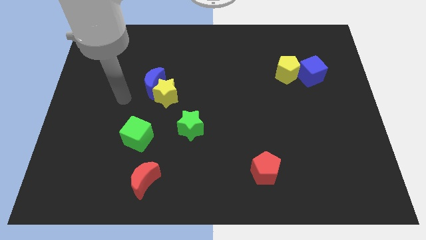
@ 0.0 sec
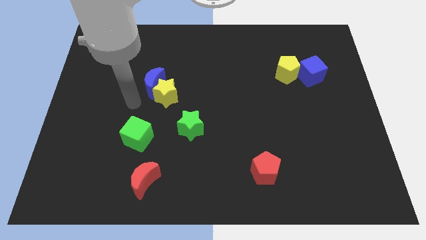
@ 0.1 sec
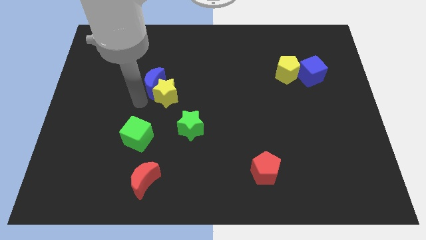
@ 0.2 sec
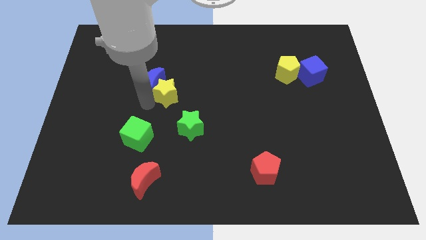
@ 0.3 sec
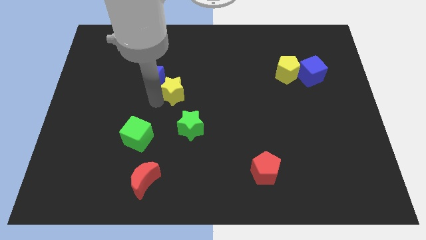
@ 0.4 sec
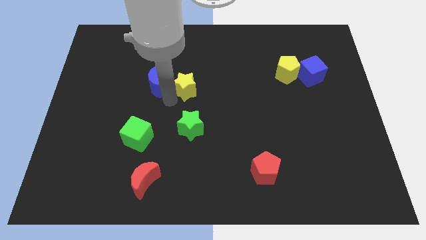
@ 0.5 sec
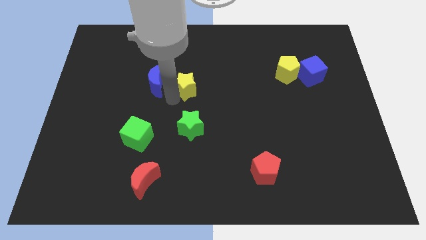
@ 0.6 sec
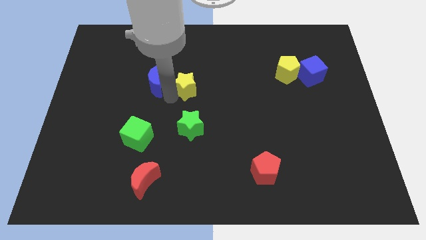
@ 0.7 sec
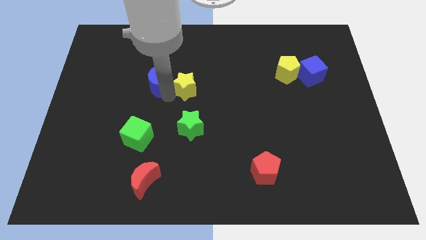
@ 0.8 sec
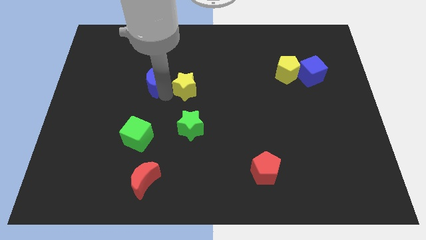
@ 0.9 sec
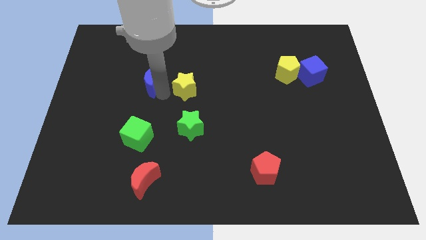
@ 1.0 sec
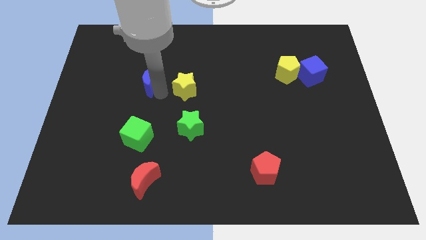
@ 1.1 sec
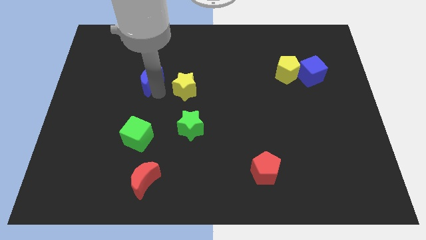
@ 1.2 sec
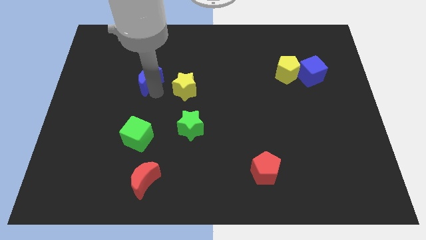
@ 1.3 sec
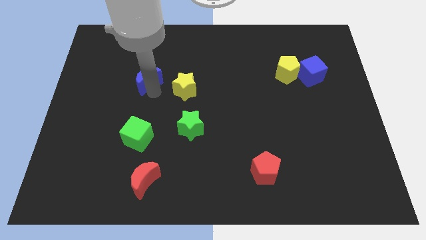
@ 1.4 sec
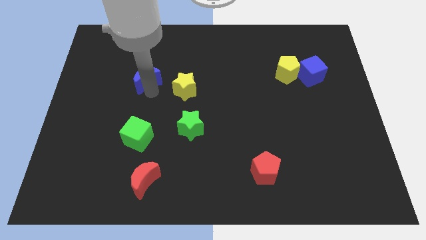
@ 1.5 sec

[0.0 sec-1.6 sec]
separate the blue moon from the yellow star

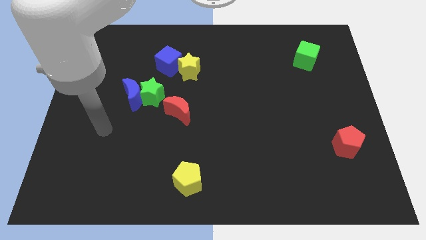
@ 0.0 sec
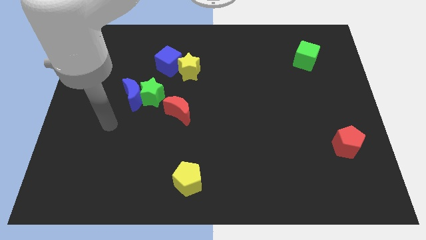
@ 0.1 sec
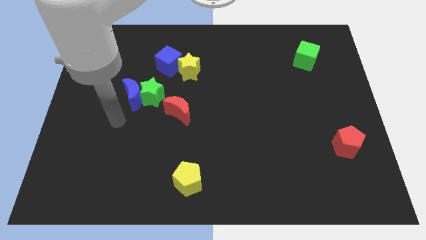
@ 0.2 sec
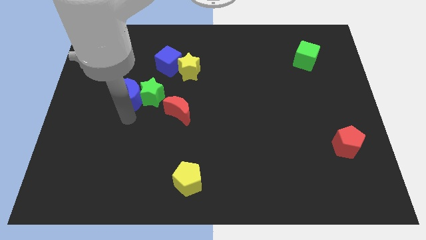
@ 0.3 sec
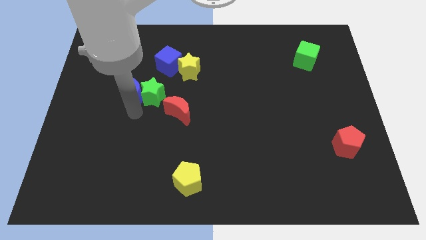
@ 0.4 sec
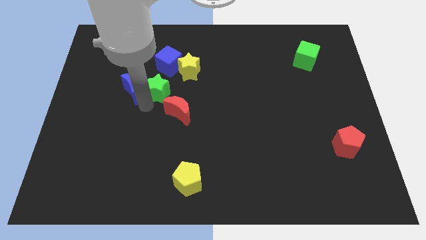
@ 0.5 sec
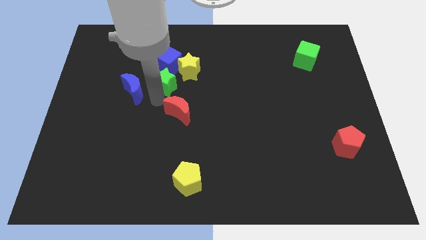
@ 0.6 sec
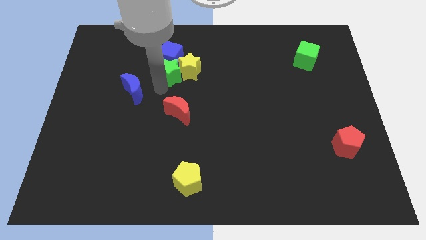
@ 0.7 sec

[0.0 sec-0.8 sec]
separate the blue moon from the green star

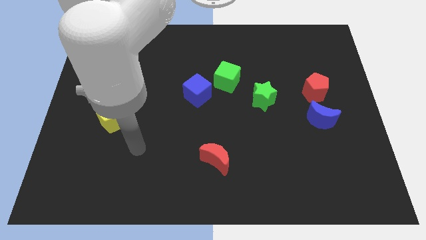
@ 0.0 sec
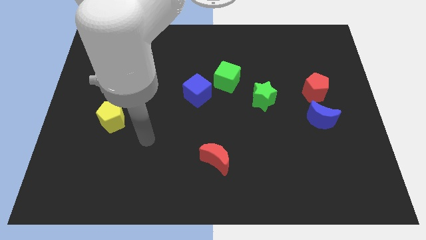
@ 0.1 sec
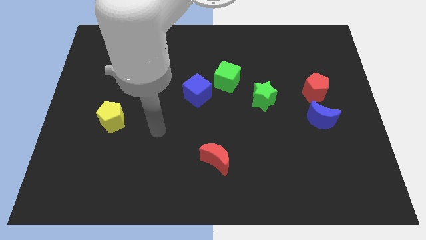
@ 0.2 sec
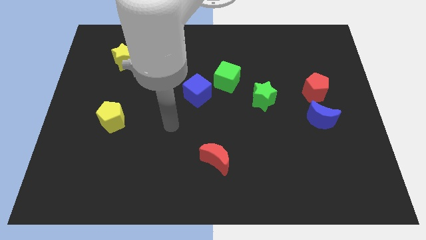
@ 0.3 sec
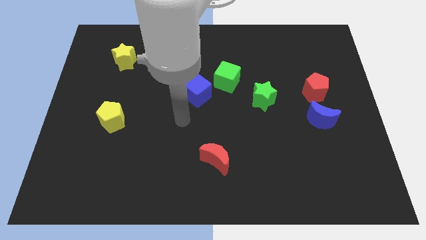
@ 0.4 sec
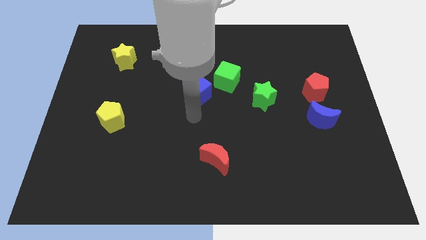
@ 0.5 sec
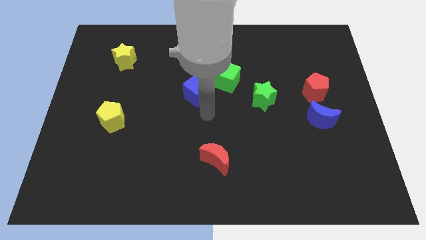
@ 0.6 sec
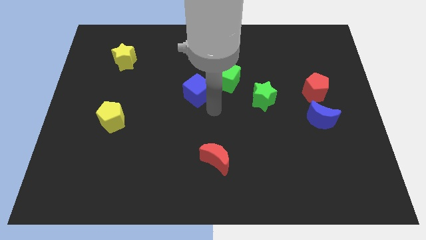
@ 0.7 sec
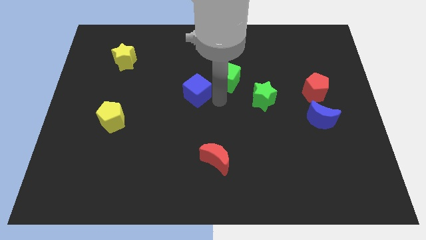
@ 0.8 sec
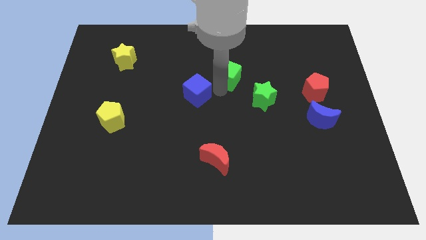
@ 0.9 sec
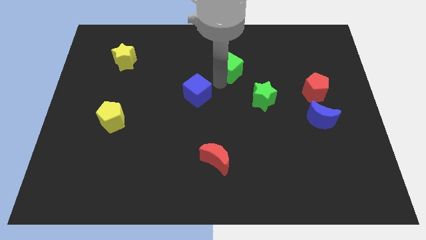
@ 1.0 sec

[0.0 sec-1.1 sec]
separate the blue cube from the green cube

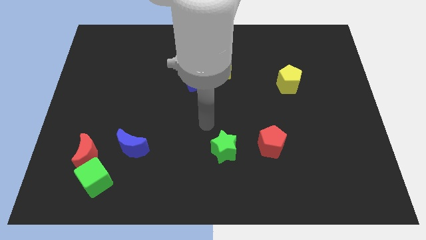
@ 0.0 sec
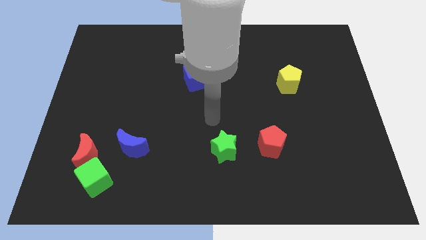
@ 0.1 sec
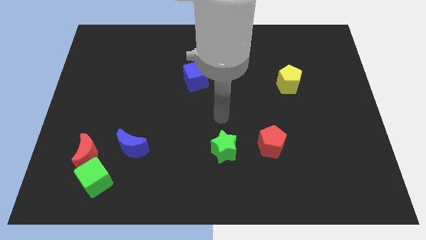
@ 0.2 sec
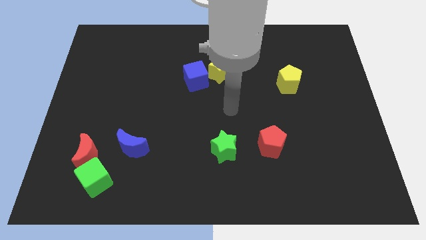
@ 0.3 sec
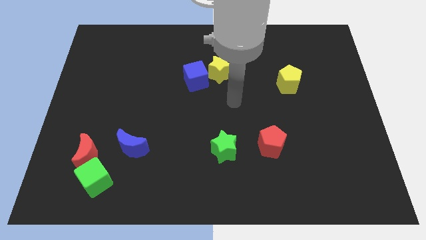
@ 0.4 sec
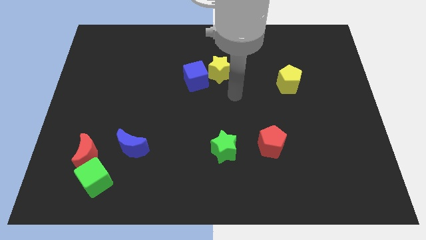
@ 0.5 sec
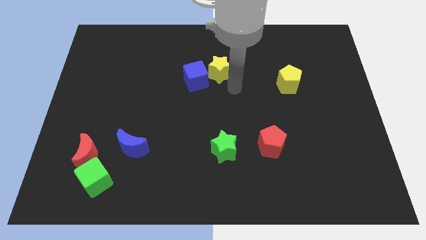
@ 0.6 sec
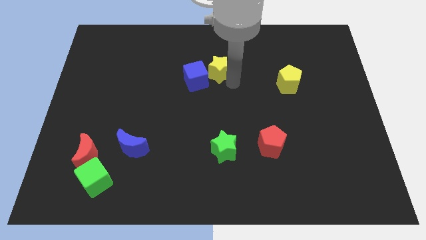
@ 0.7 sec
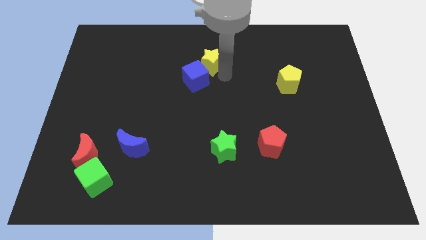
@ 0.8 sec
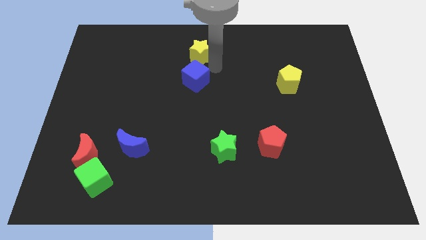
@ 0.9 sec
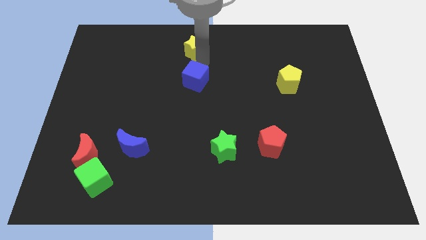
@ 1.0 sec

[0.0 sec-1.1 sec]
move the blue cube away from the yellow star

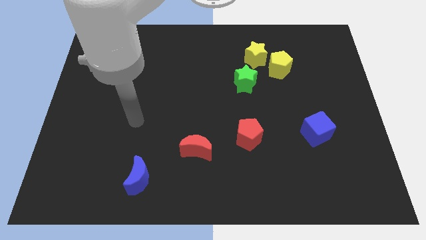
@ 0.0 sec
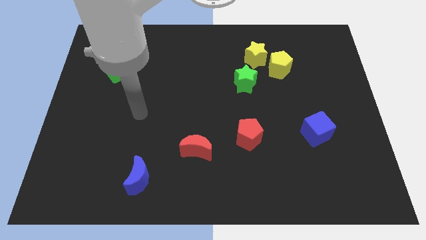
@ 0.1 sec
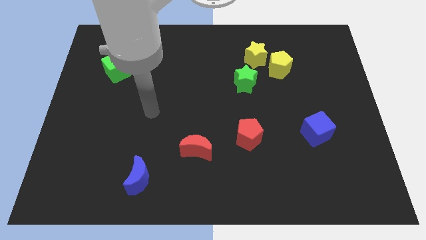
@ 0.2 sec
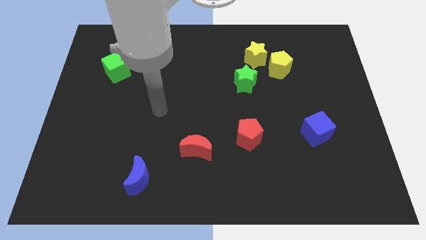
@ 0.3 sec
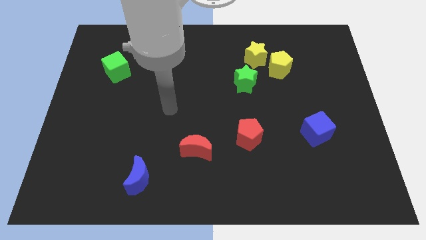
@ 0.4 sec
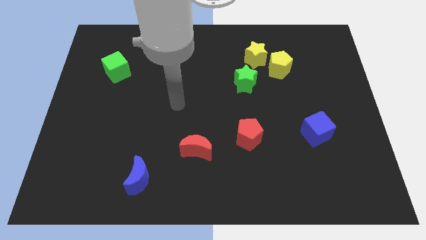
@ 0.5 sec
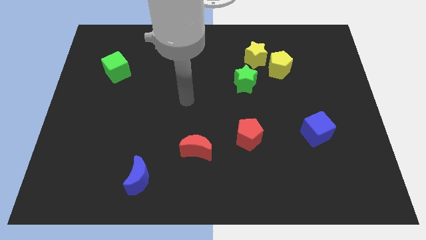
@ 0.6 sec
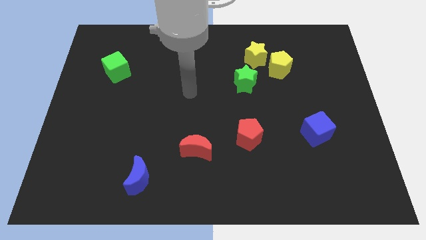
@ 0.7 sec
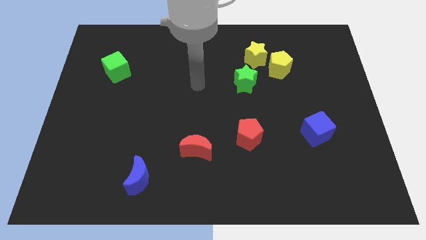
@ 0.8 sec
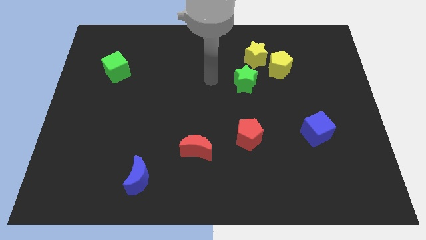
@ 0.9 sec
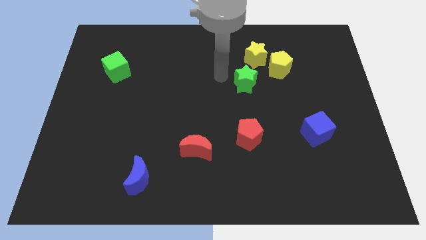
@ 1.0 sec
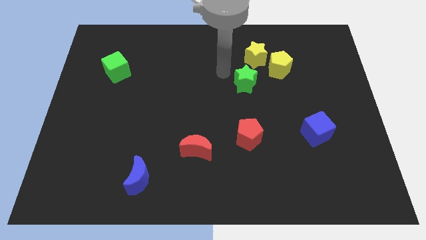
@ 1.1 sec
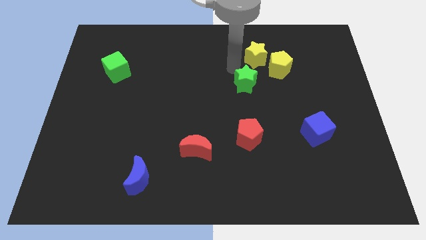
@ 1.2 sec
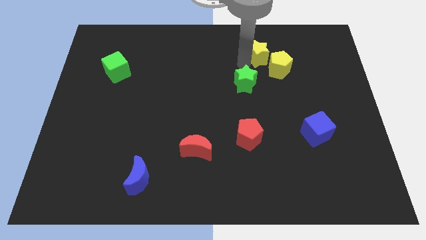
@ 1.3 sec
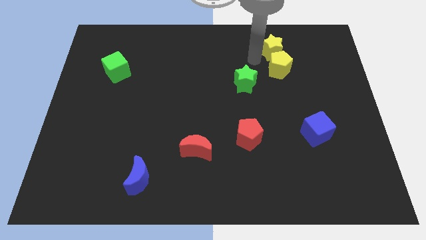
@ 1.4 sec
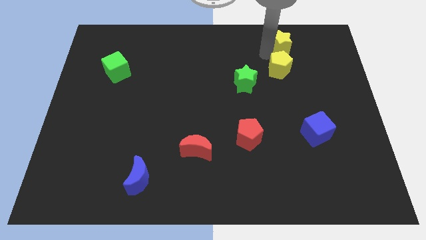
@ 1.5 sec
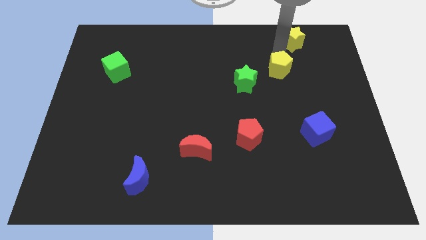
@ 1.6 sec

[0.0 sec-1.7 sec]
separate the yellow pentagon from the yellow star

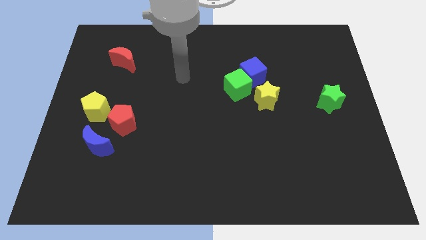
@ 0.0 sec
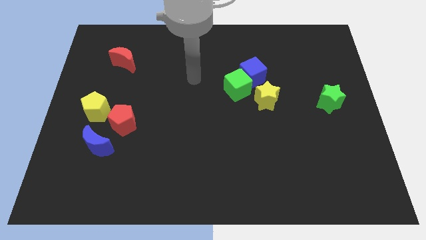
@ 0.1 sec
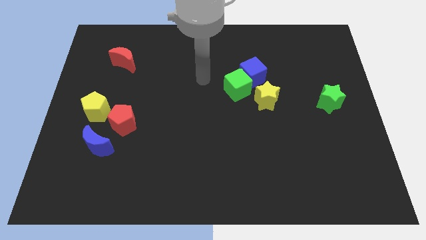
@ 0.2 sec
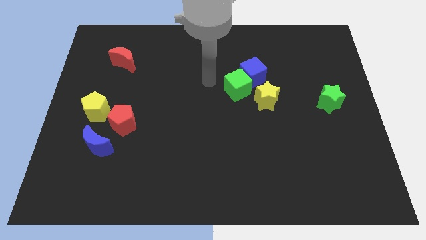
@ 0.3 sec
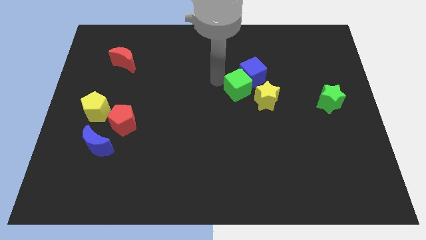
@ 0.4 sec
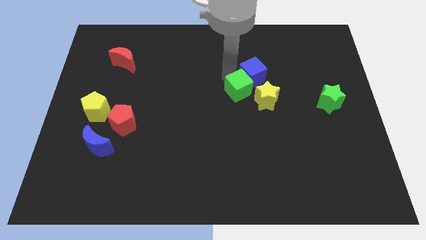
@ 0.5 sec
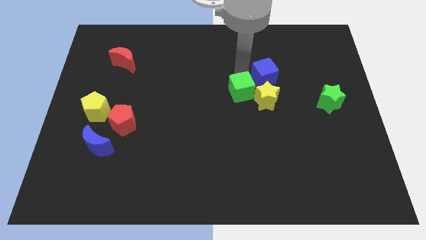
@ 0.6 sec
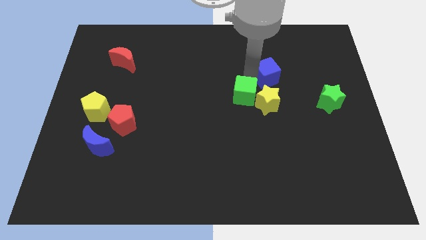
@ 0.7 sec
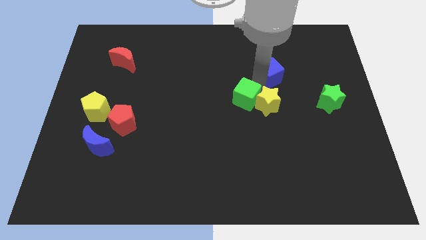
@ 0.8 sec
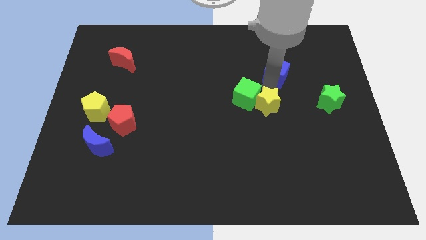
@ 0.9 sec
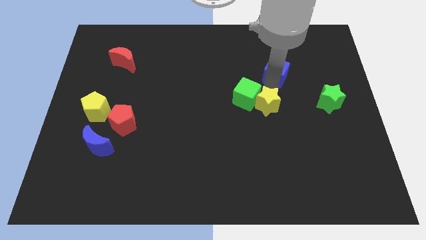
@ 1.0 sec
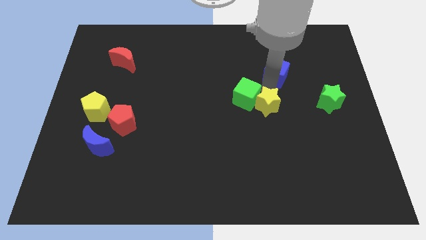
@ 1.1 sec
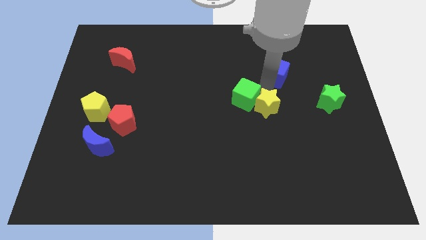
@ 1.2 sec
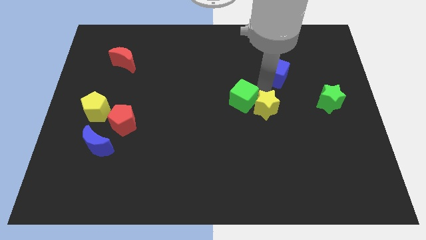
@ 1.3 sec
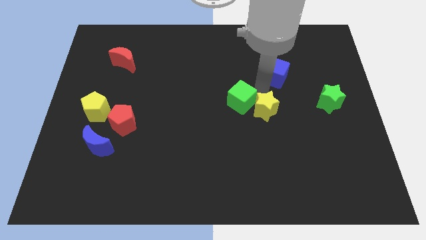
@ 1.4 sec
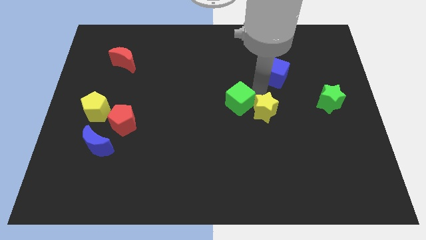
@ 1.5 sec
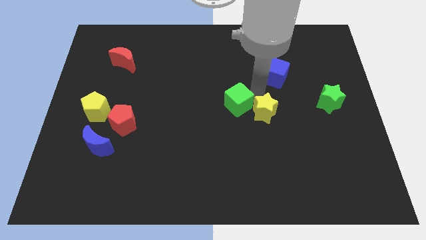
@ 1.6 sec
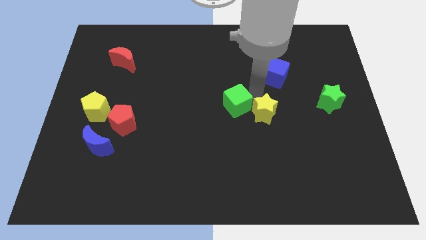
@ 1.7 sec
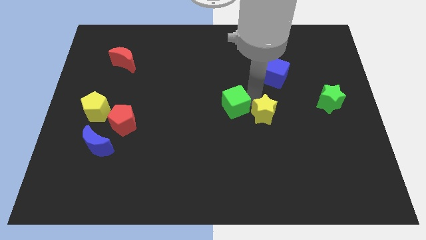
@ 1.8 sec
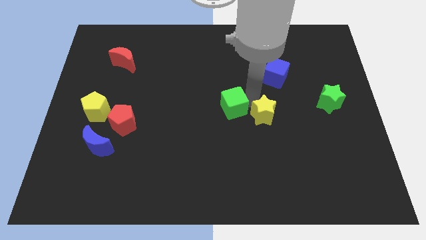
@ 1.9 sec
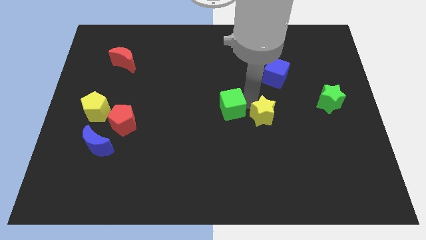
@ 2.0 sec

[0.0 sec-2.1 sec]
move the green cube away from the blue cube and yellow star

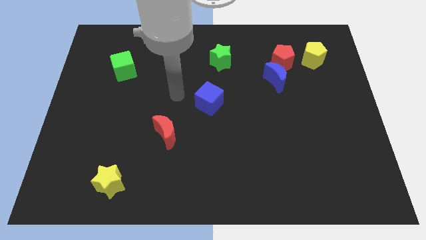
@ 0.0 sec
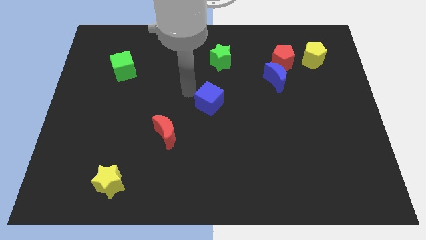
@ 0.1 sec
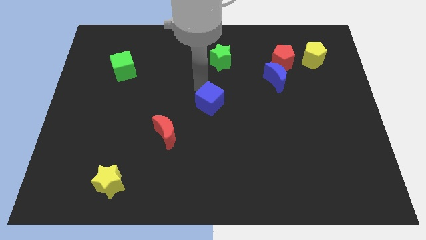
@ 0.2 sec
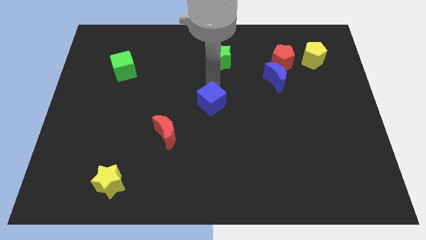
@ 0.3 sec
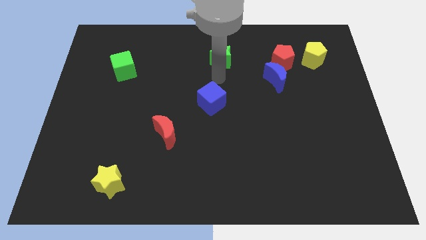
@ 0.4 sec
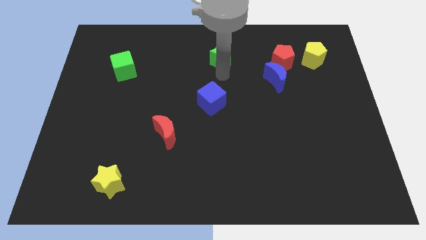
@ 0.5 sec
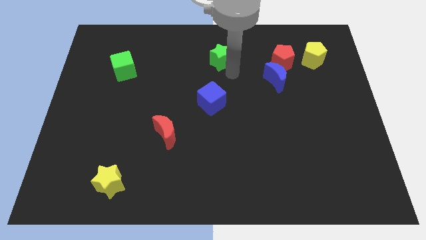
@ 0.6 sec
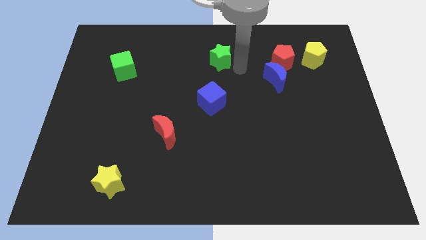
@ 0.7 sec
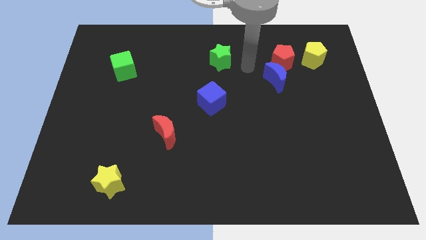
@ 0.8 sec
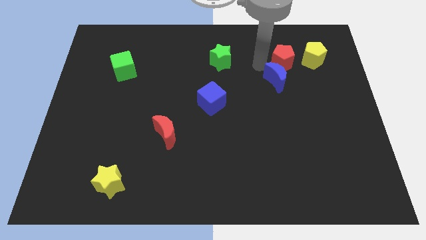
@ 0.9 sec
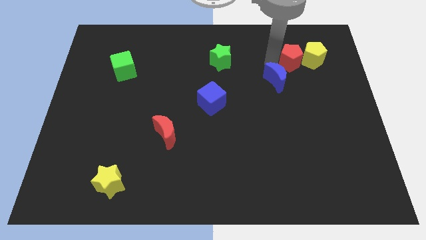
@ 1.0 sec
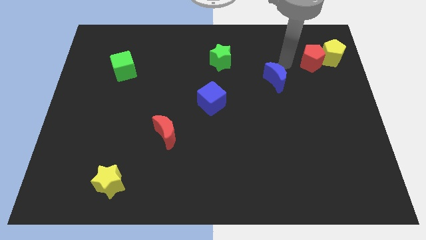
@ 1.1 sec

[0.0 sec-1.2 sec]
separate the blue moon from the red pentagon
